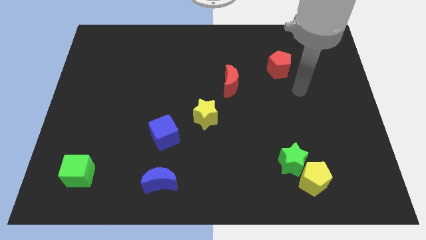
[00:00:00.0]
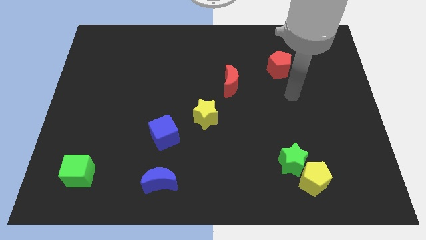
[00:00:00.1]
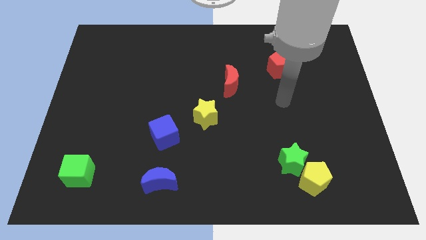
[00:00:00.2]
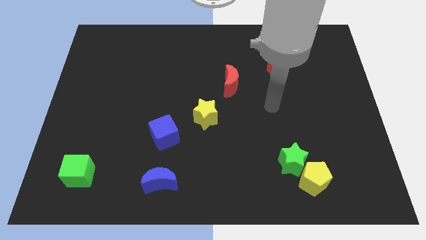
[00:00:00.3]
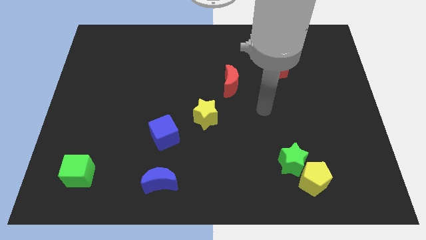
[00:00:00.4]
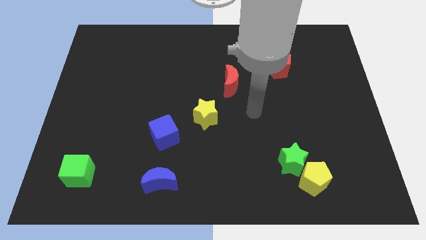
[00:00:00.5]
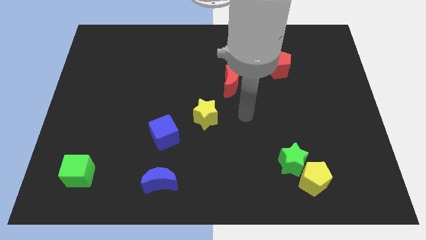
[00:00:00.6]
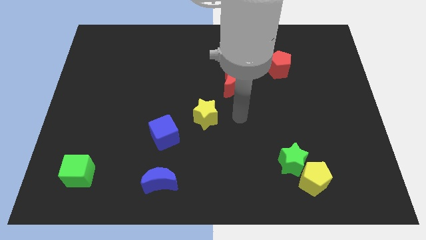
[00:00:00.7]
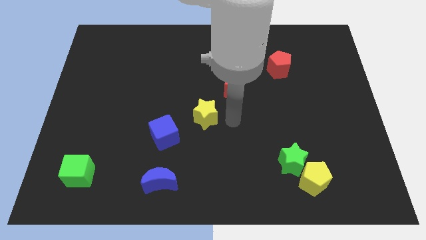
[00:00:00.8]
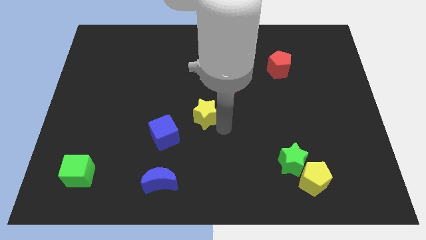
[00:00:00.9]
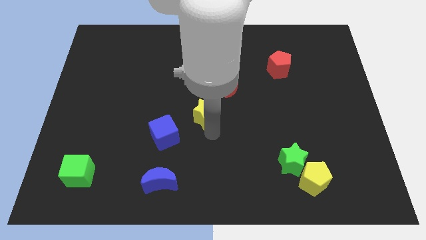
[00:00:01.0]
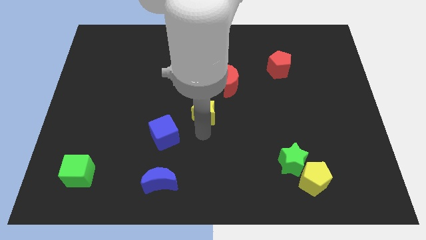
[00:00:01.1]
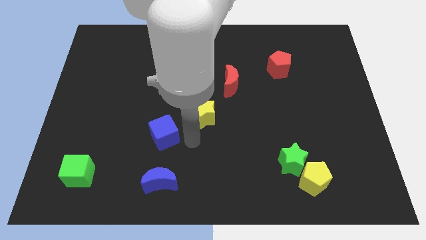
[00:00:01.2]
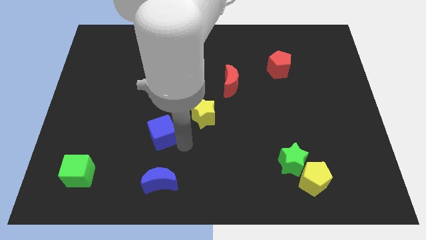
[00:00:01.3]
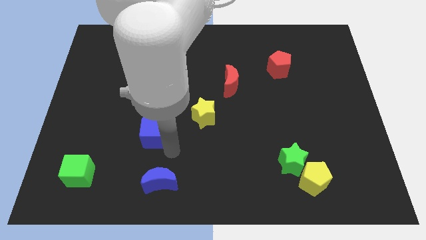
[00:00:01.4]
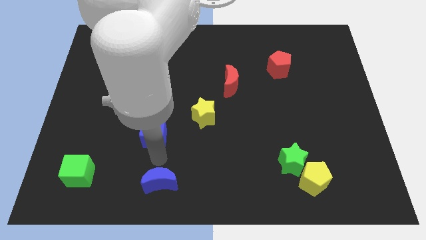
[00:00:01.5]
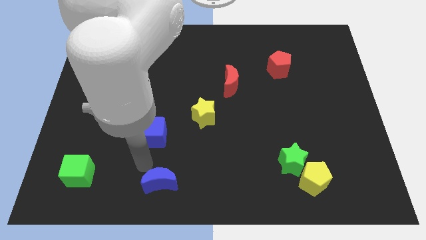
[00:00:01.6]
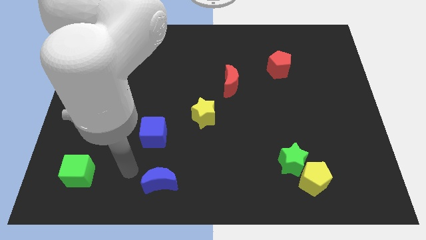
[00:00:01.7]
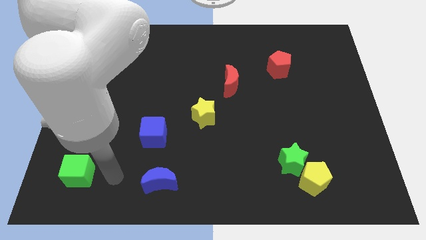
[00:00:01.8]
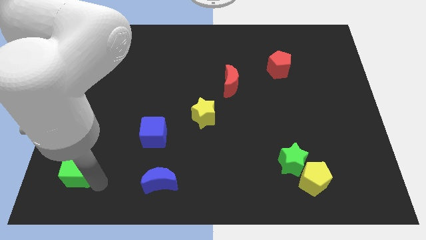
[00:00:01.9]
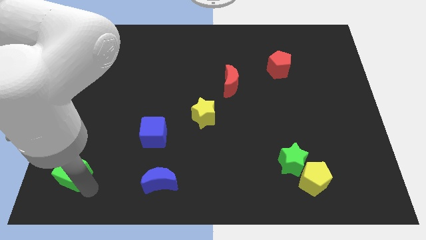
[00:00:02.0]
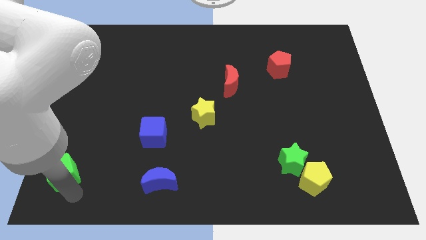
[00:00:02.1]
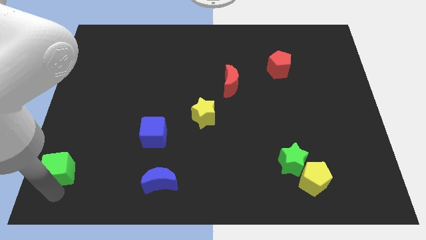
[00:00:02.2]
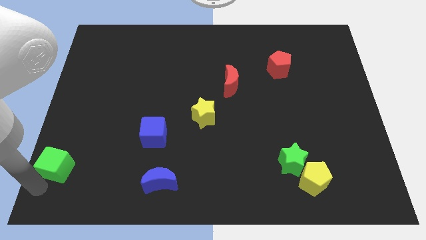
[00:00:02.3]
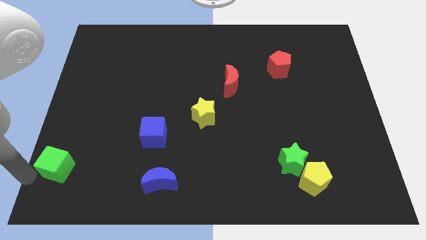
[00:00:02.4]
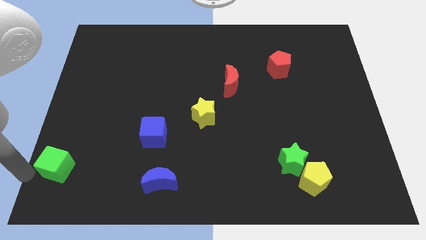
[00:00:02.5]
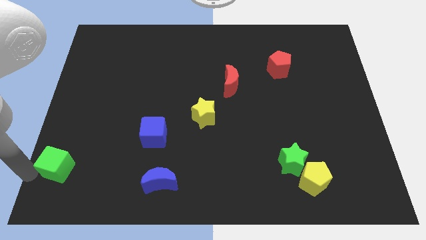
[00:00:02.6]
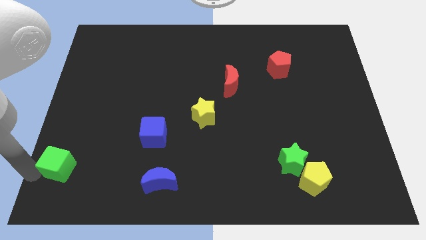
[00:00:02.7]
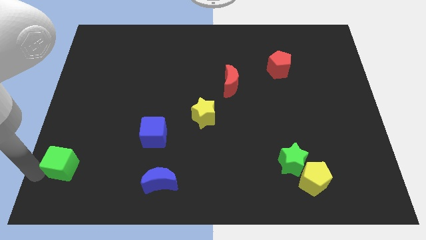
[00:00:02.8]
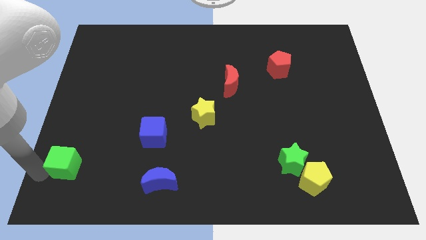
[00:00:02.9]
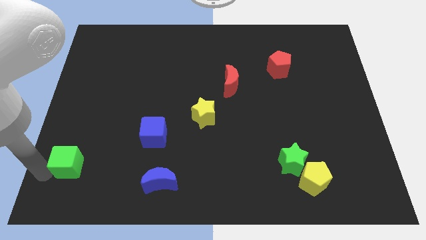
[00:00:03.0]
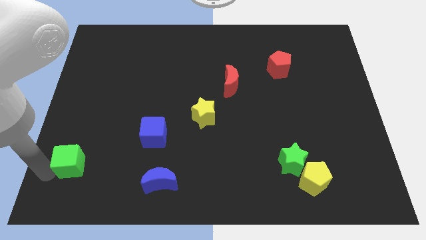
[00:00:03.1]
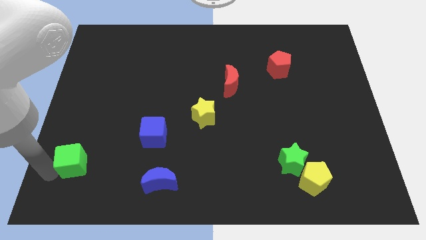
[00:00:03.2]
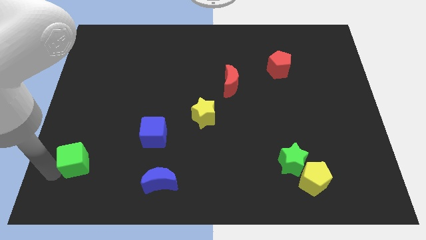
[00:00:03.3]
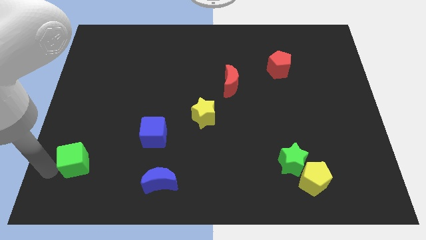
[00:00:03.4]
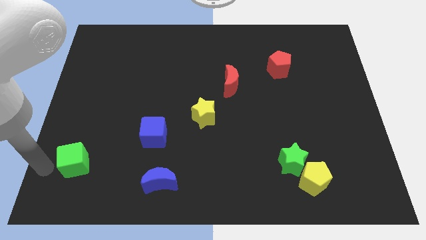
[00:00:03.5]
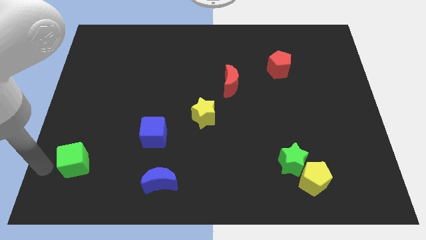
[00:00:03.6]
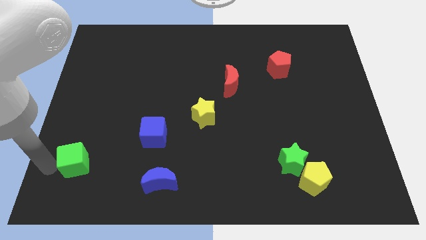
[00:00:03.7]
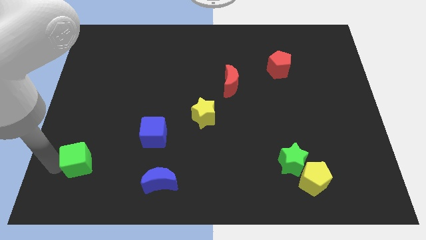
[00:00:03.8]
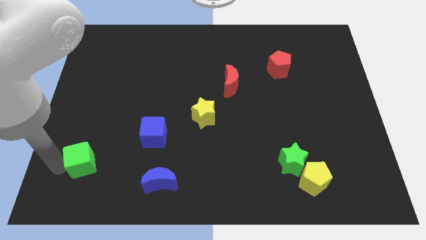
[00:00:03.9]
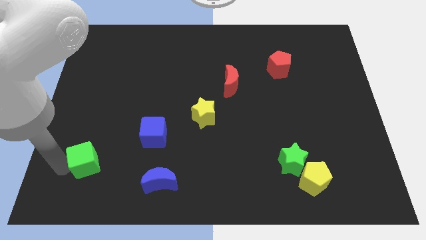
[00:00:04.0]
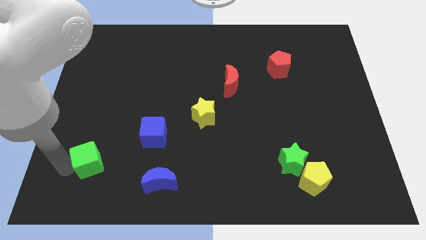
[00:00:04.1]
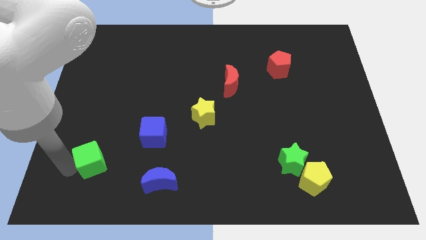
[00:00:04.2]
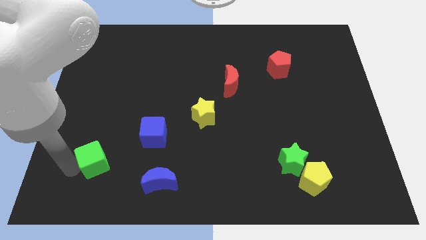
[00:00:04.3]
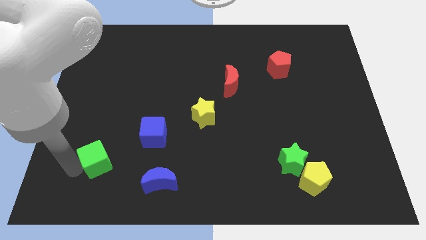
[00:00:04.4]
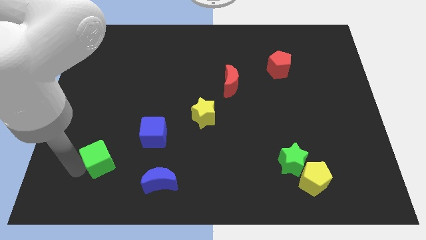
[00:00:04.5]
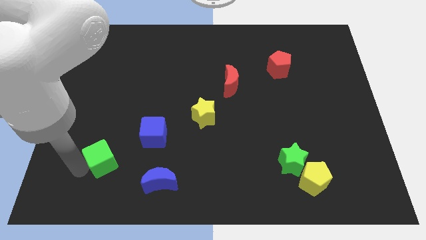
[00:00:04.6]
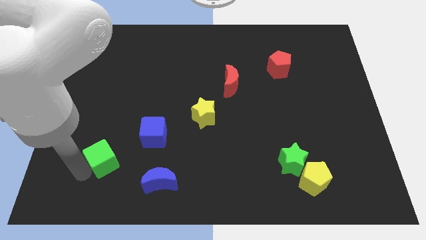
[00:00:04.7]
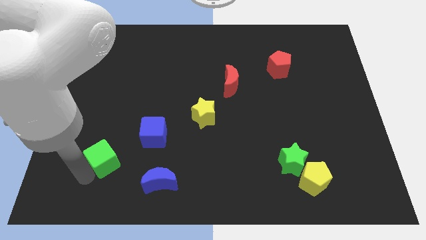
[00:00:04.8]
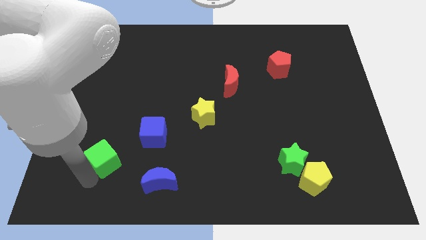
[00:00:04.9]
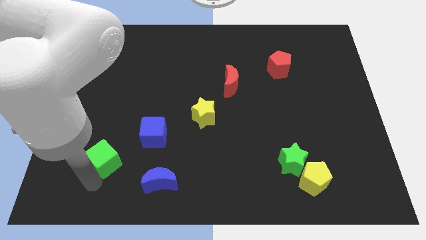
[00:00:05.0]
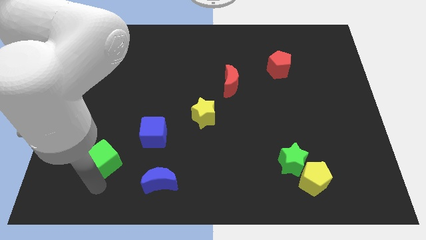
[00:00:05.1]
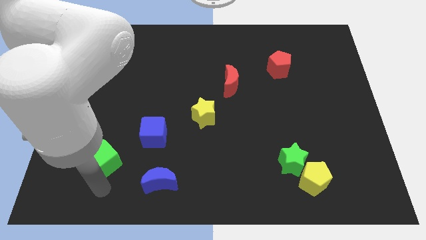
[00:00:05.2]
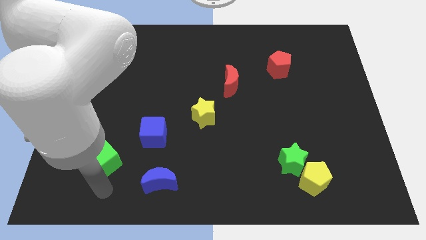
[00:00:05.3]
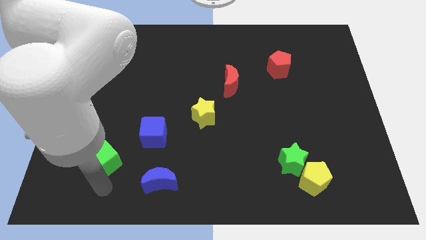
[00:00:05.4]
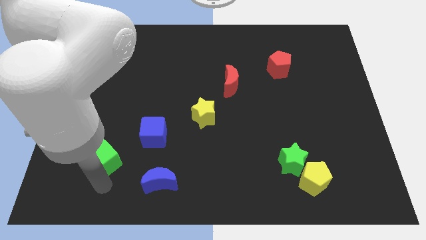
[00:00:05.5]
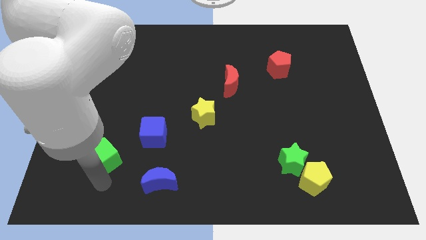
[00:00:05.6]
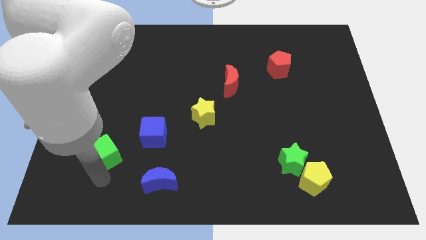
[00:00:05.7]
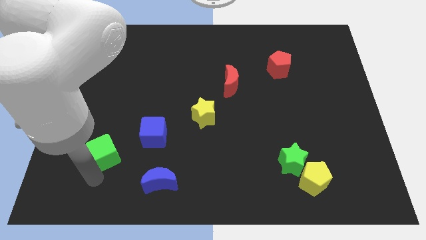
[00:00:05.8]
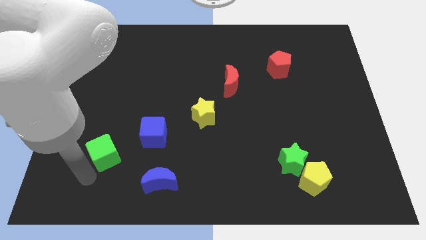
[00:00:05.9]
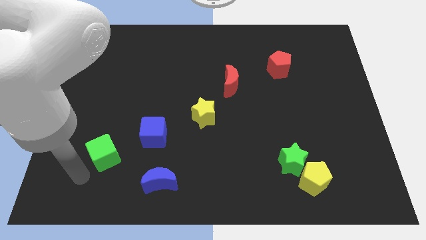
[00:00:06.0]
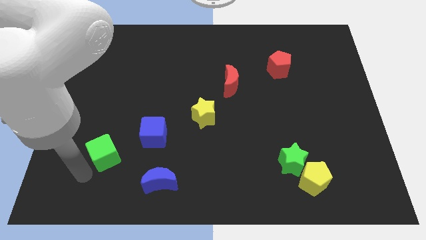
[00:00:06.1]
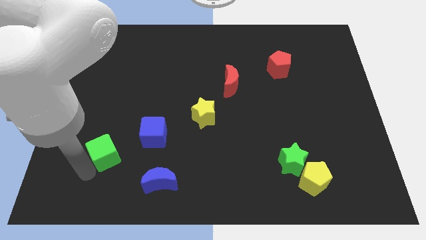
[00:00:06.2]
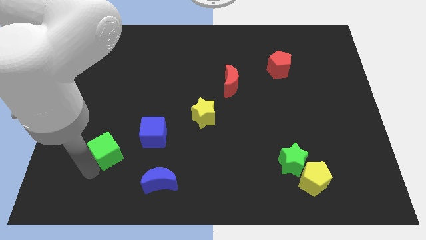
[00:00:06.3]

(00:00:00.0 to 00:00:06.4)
move the green cube slightly upwards and to the right diagonally

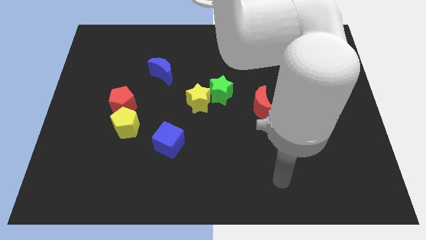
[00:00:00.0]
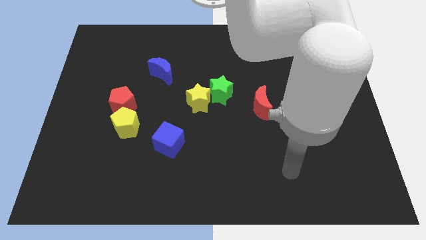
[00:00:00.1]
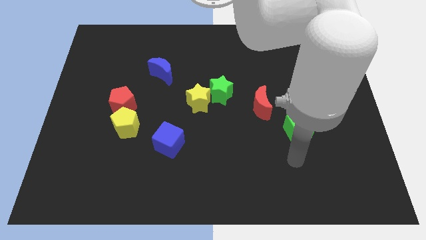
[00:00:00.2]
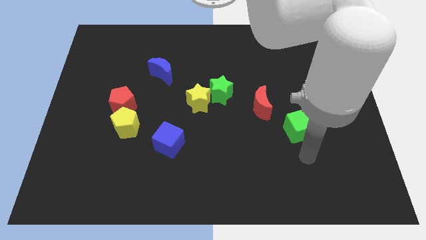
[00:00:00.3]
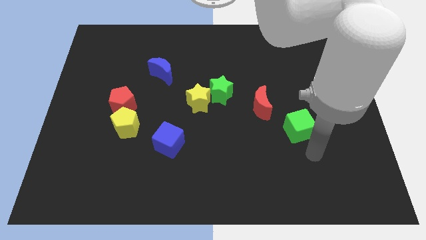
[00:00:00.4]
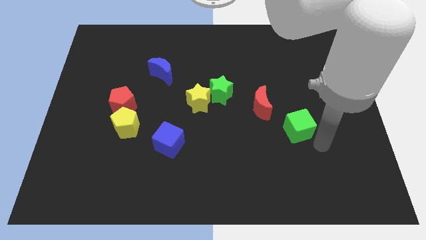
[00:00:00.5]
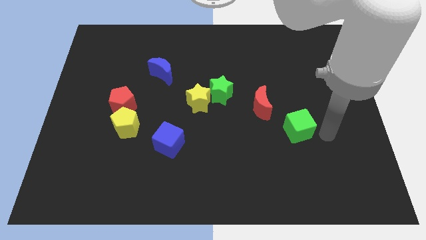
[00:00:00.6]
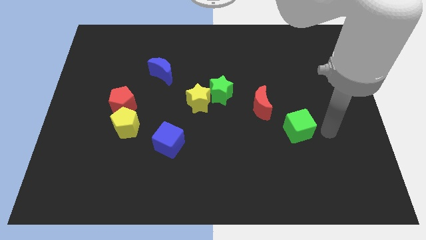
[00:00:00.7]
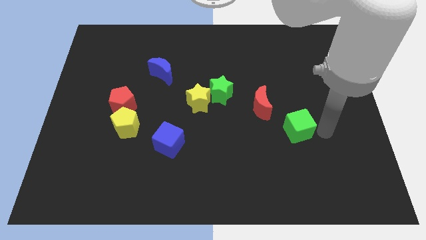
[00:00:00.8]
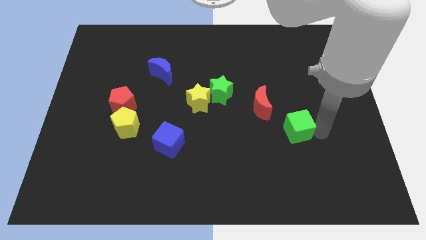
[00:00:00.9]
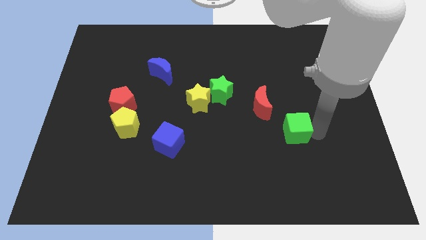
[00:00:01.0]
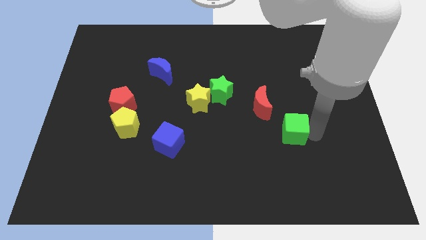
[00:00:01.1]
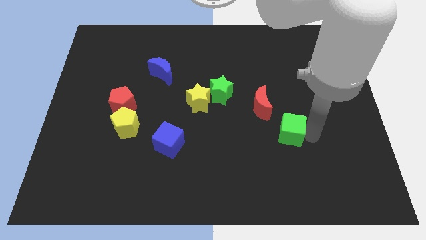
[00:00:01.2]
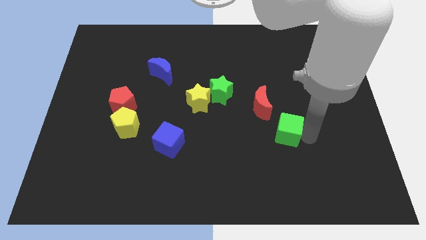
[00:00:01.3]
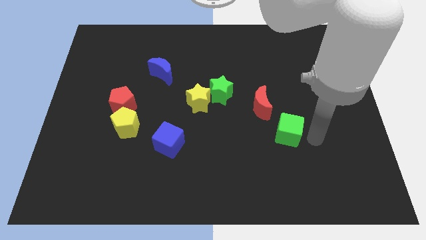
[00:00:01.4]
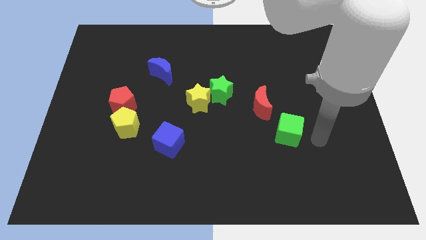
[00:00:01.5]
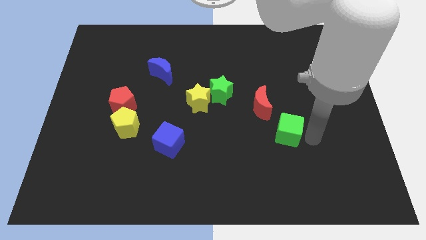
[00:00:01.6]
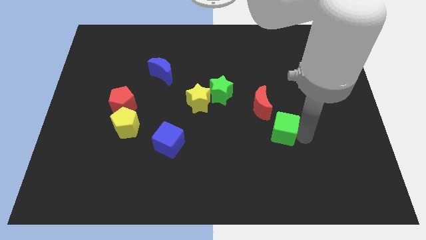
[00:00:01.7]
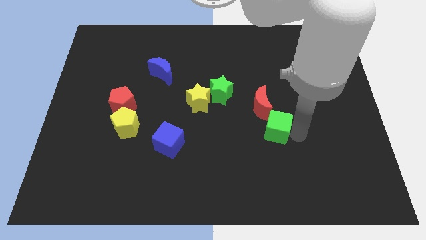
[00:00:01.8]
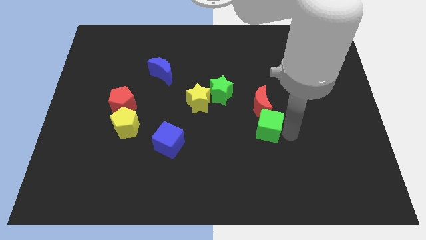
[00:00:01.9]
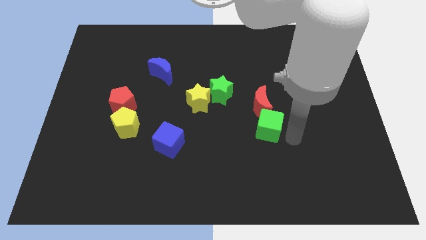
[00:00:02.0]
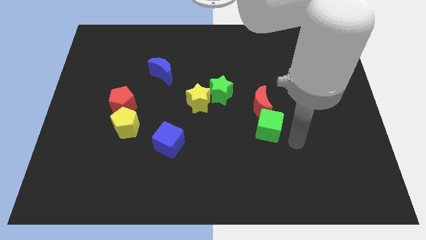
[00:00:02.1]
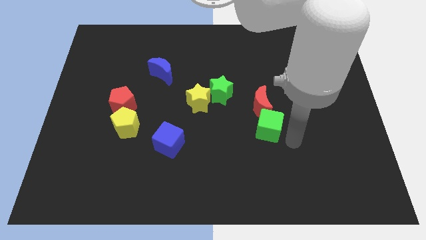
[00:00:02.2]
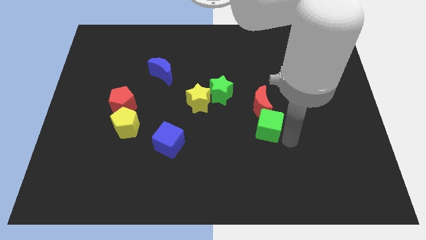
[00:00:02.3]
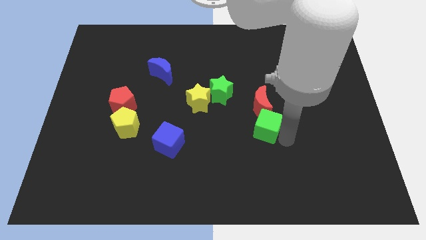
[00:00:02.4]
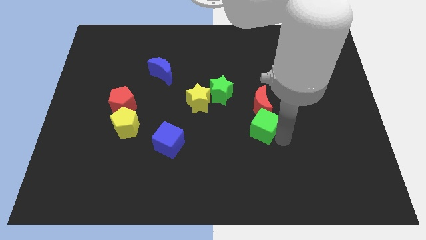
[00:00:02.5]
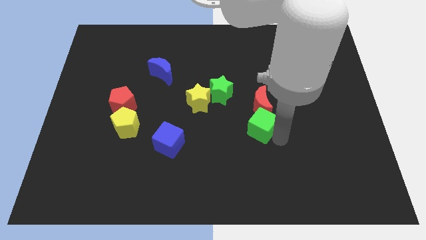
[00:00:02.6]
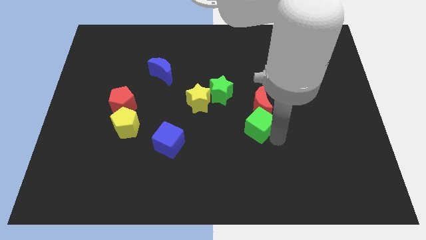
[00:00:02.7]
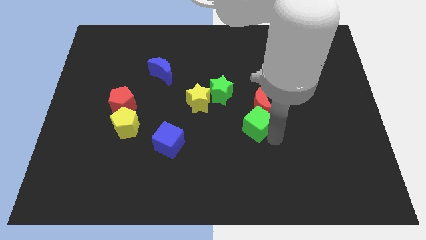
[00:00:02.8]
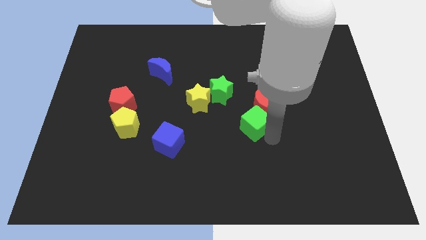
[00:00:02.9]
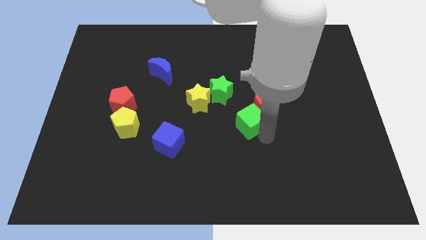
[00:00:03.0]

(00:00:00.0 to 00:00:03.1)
slightly move the green cube up and to the left diagonally
